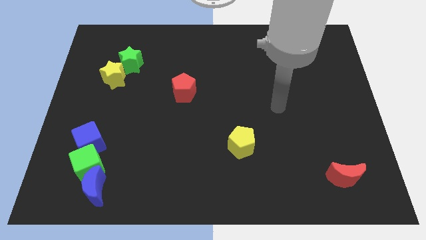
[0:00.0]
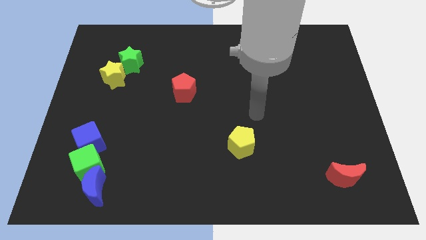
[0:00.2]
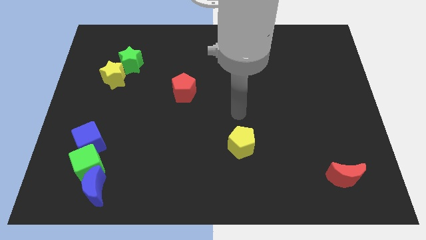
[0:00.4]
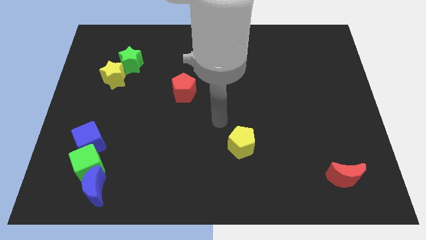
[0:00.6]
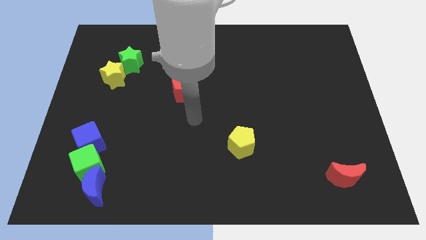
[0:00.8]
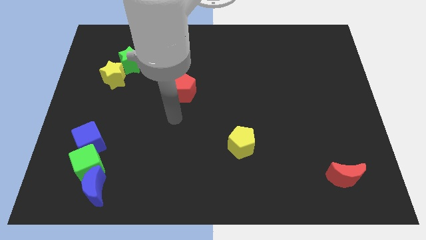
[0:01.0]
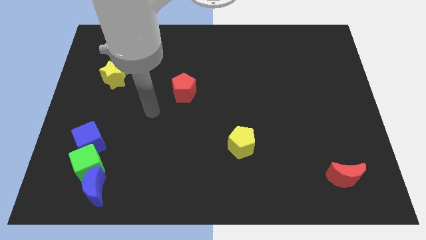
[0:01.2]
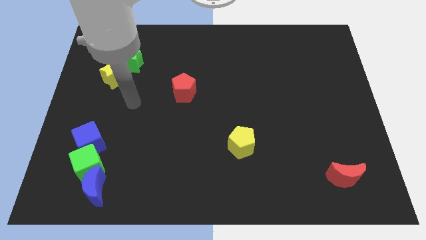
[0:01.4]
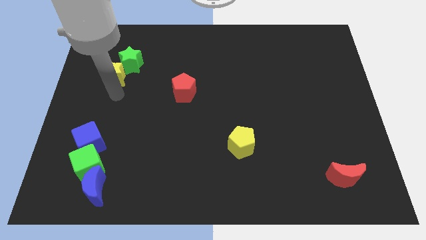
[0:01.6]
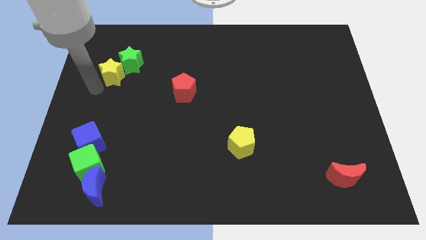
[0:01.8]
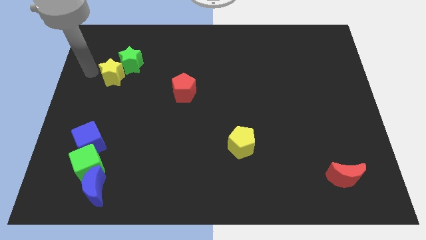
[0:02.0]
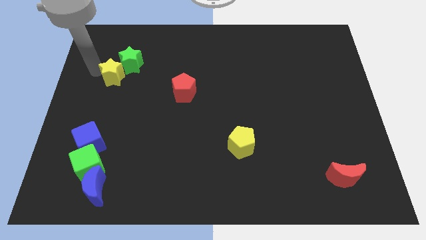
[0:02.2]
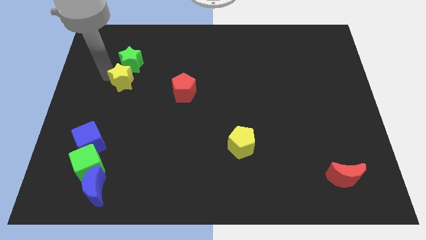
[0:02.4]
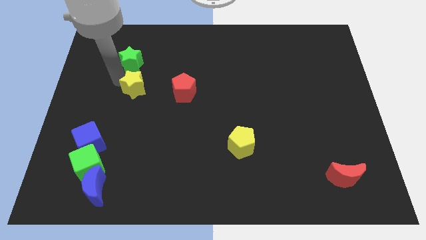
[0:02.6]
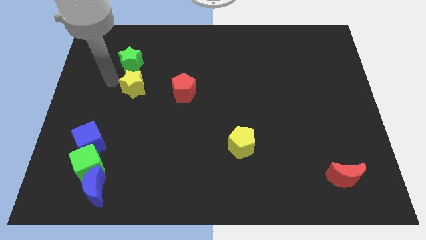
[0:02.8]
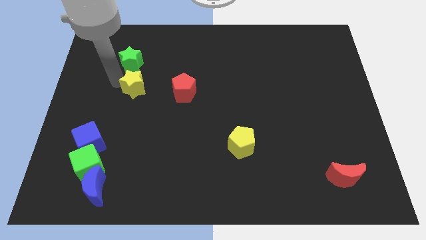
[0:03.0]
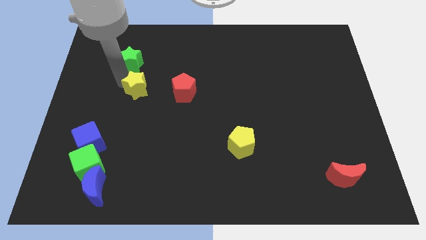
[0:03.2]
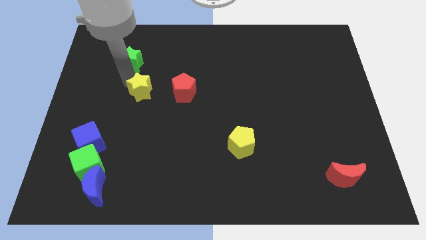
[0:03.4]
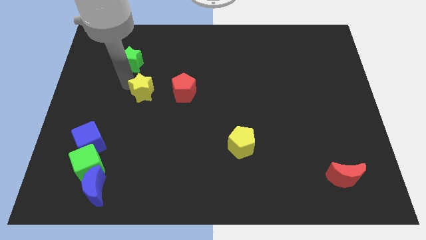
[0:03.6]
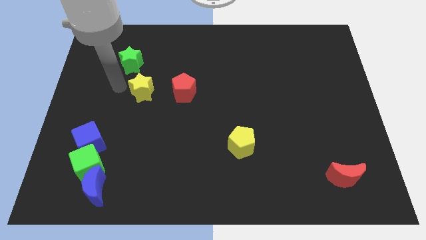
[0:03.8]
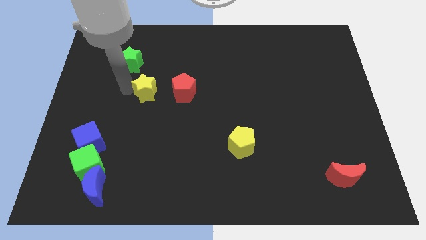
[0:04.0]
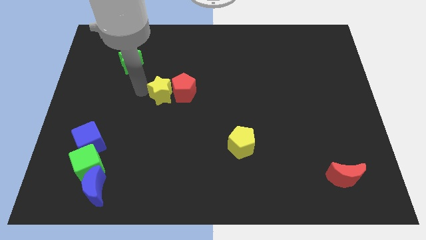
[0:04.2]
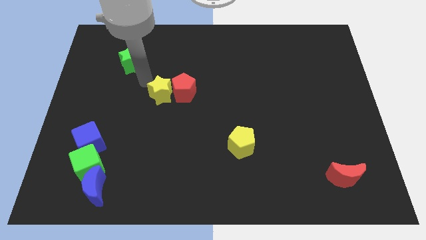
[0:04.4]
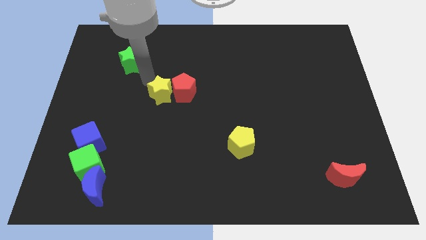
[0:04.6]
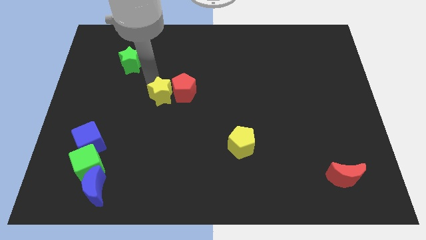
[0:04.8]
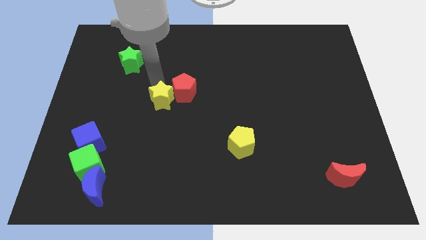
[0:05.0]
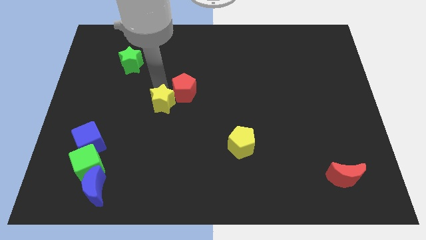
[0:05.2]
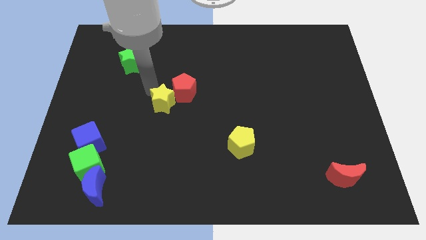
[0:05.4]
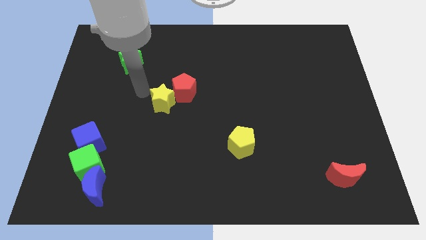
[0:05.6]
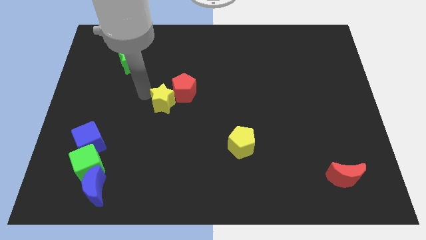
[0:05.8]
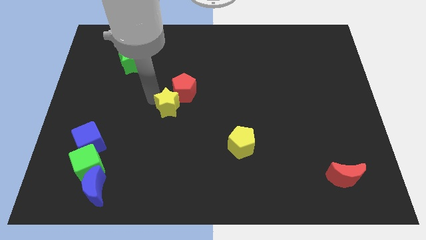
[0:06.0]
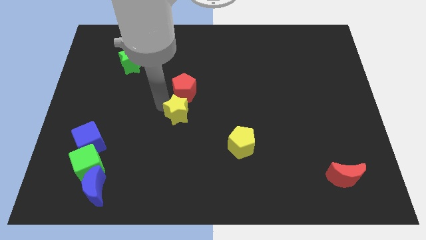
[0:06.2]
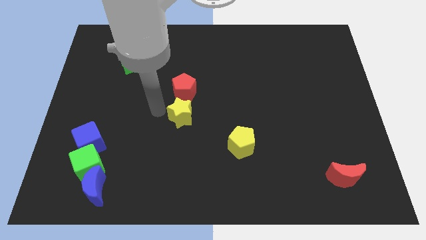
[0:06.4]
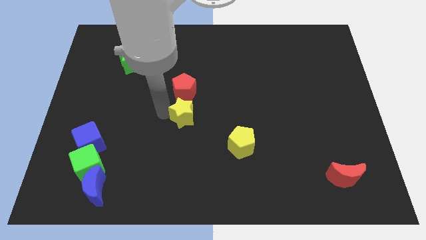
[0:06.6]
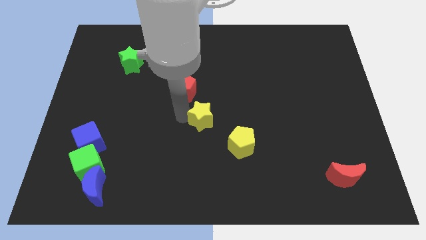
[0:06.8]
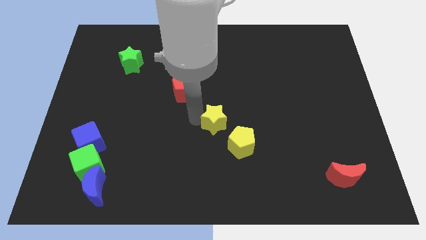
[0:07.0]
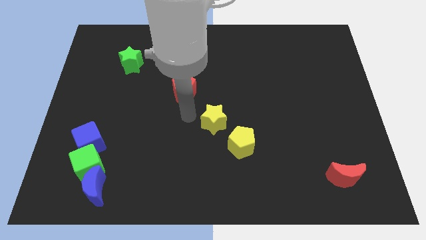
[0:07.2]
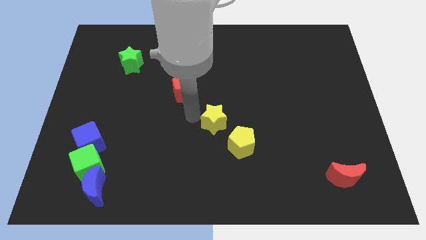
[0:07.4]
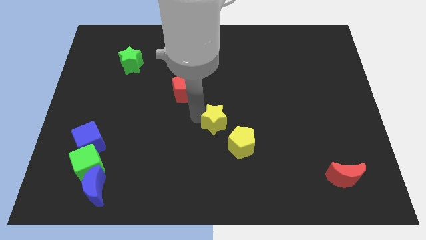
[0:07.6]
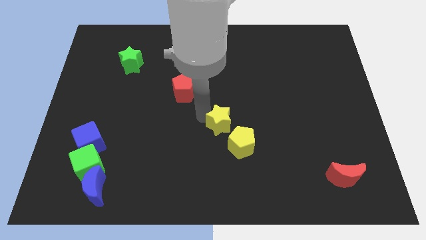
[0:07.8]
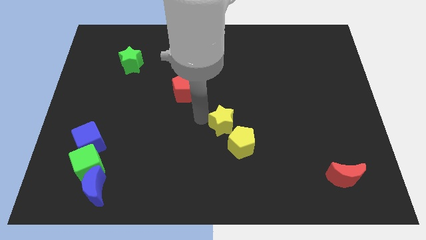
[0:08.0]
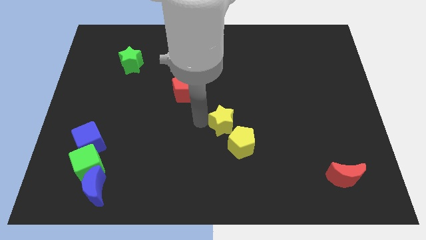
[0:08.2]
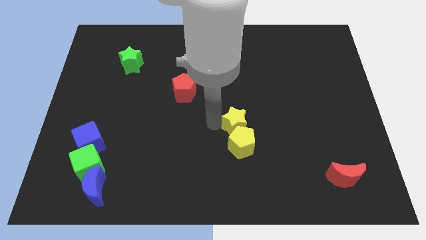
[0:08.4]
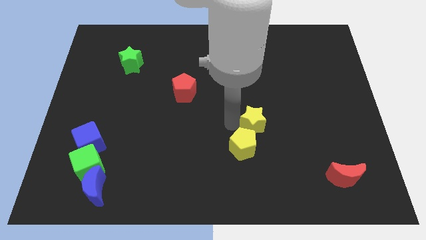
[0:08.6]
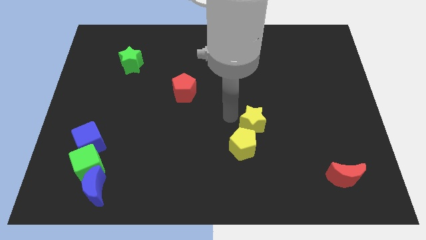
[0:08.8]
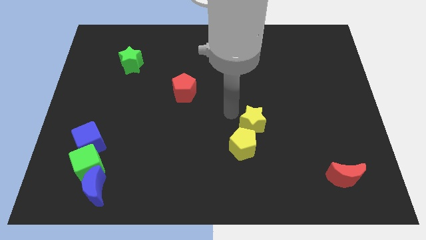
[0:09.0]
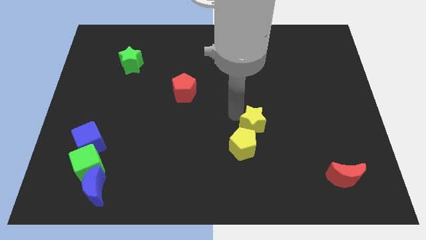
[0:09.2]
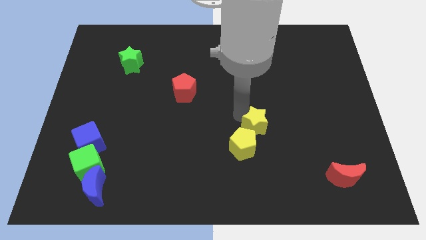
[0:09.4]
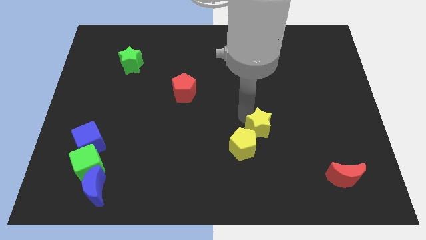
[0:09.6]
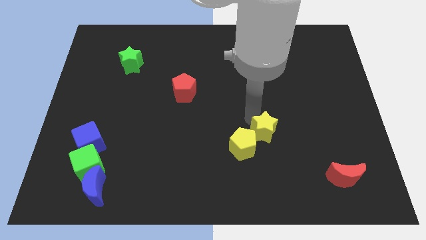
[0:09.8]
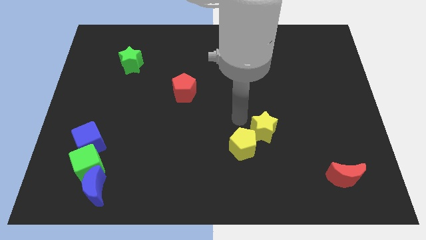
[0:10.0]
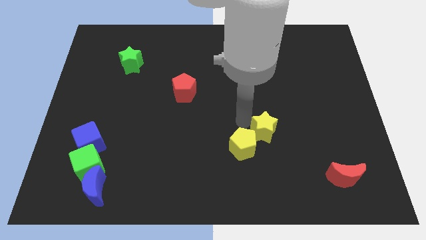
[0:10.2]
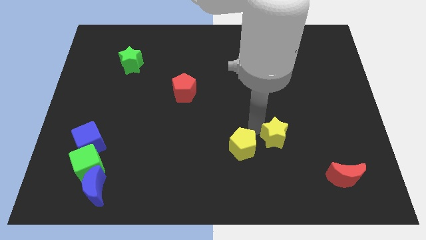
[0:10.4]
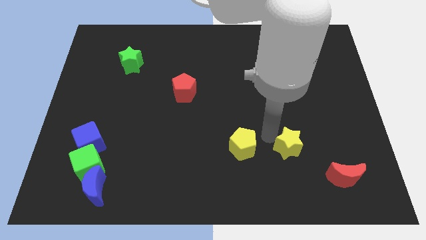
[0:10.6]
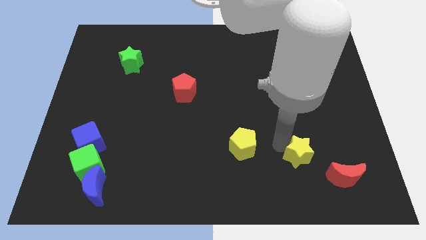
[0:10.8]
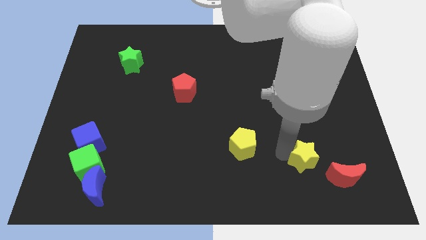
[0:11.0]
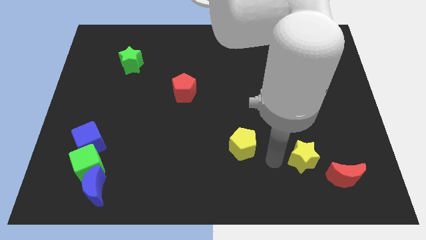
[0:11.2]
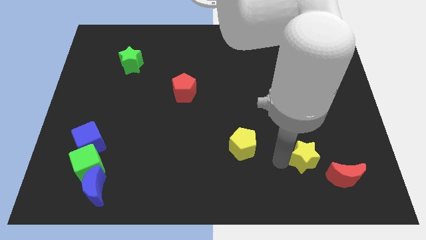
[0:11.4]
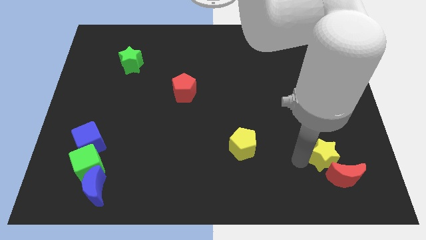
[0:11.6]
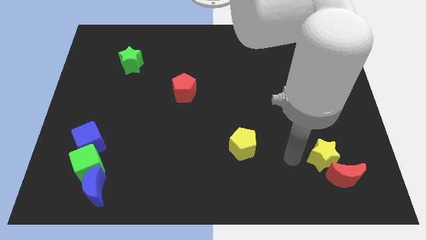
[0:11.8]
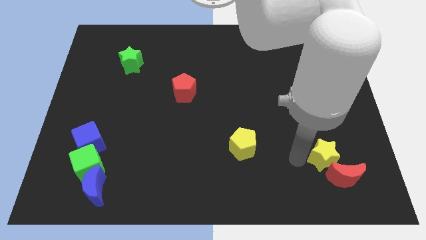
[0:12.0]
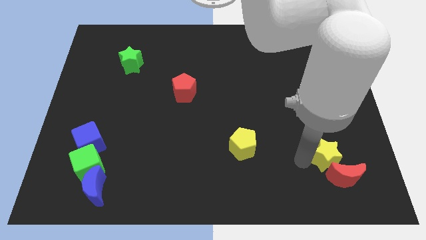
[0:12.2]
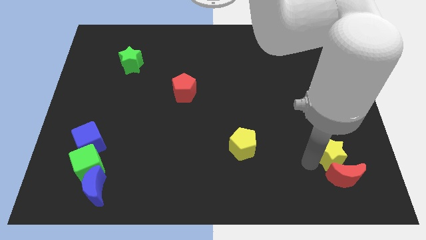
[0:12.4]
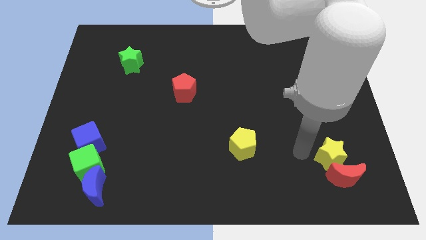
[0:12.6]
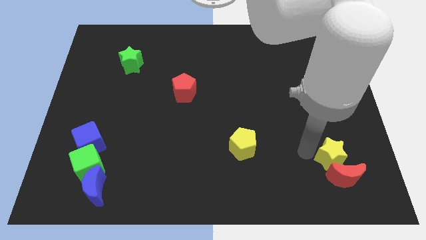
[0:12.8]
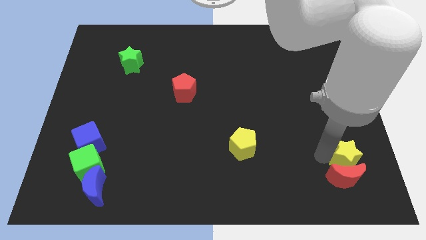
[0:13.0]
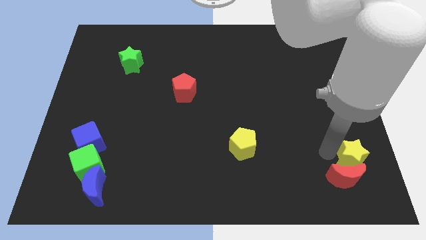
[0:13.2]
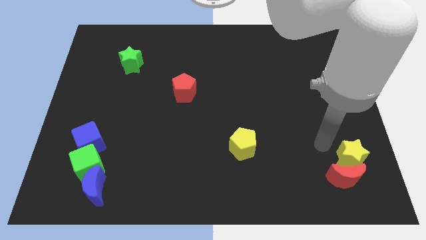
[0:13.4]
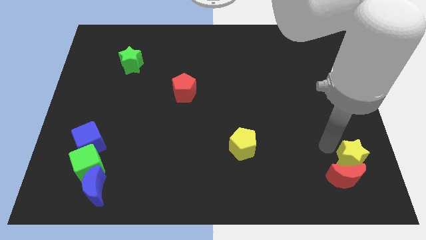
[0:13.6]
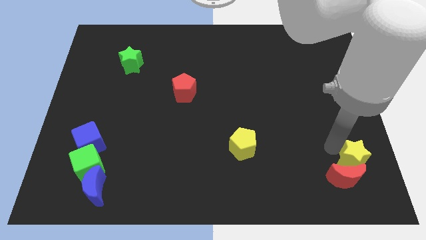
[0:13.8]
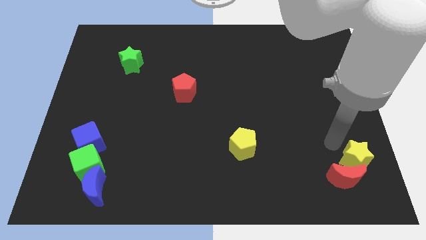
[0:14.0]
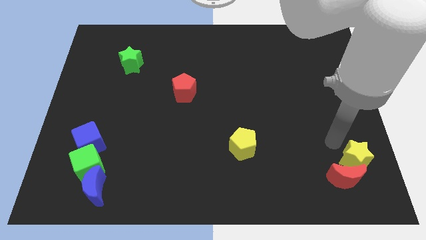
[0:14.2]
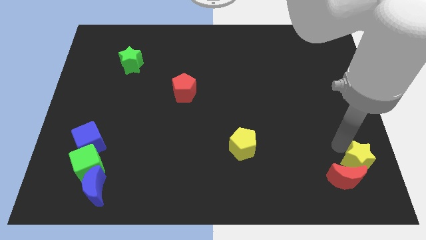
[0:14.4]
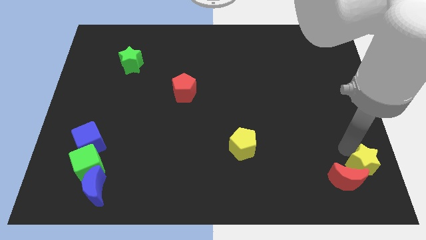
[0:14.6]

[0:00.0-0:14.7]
move the yellow star to the bottom right
